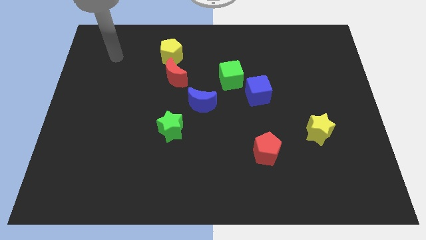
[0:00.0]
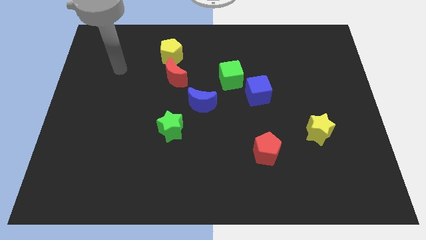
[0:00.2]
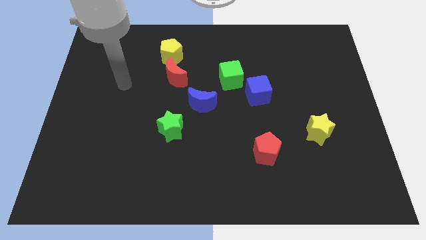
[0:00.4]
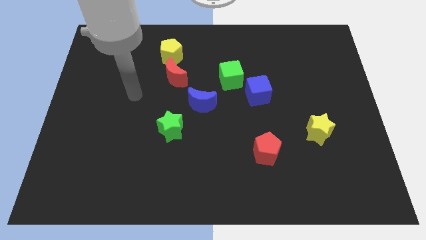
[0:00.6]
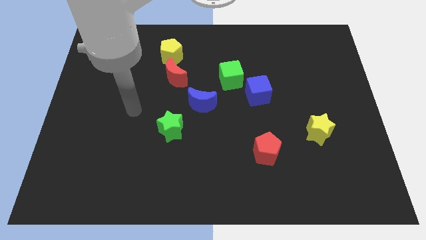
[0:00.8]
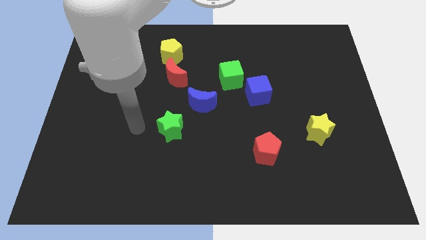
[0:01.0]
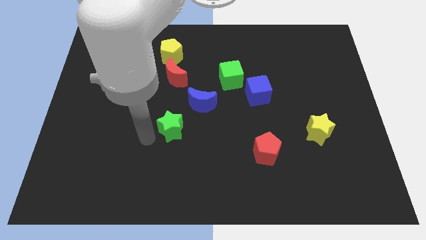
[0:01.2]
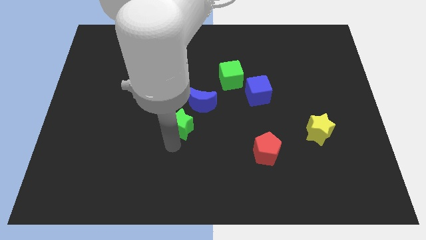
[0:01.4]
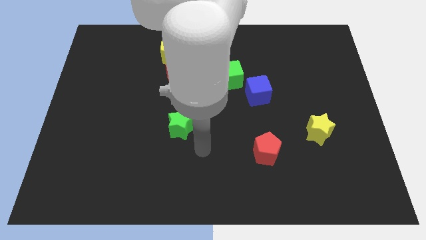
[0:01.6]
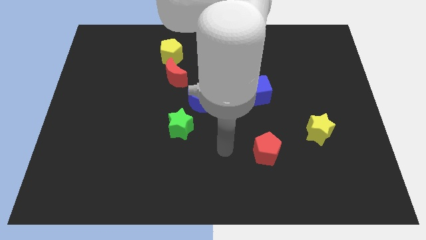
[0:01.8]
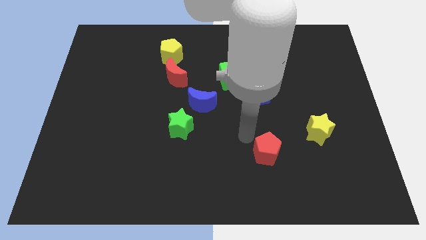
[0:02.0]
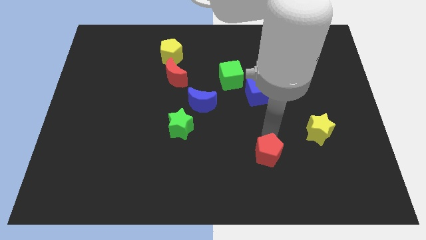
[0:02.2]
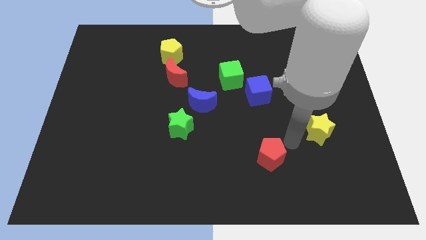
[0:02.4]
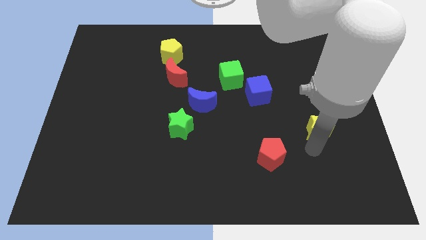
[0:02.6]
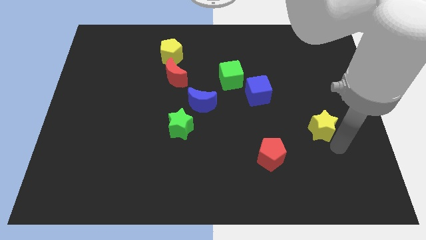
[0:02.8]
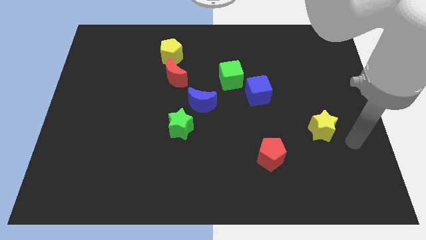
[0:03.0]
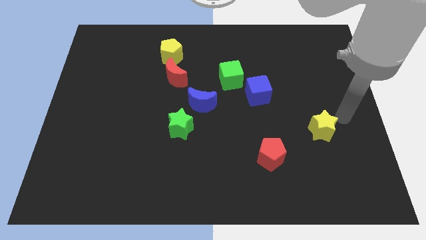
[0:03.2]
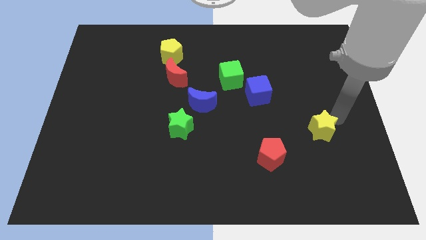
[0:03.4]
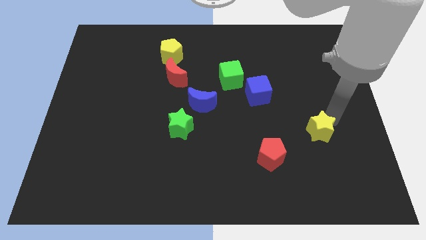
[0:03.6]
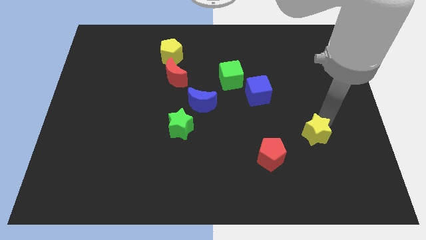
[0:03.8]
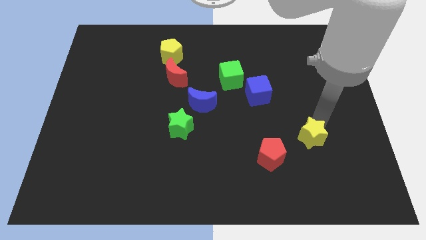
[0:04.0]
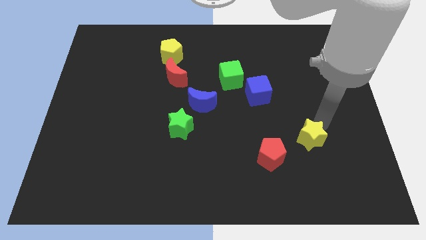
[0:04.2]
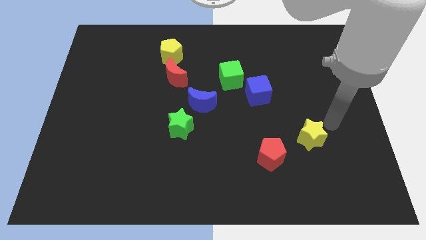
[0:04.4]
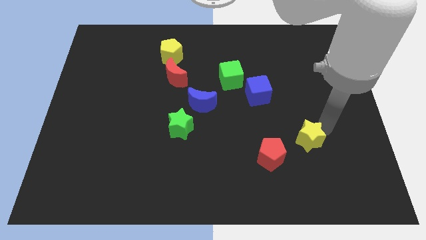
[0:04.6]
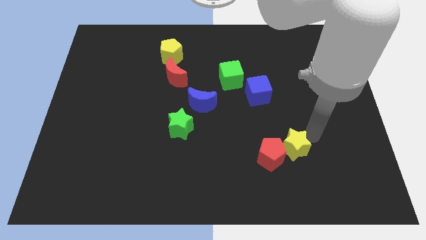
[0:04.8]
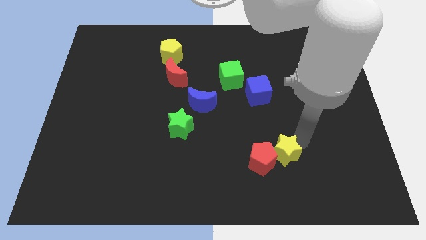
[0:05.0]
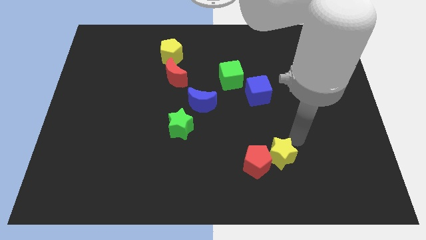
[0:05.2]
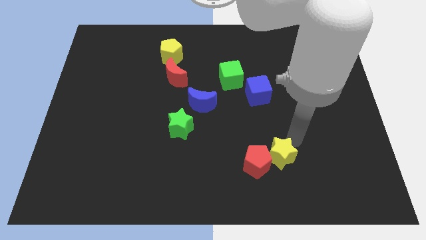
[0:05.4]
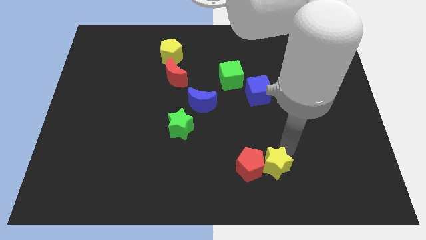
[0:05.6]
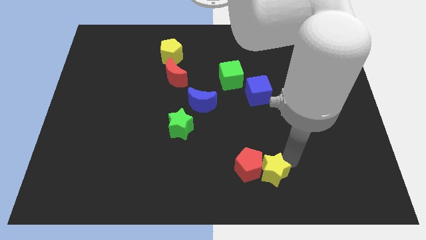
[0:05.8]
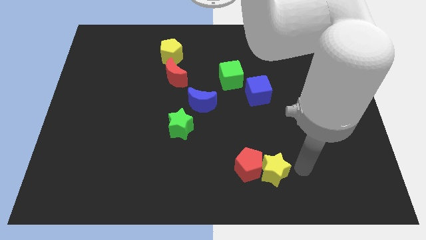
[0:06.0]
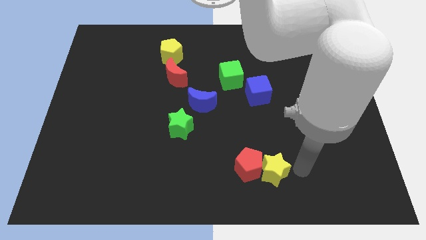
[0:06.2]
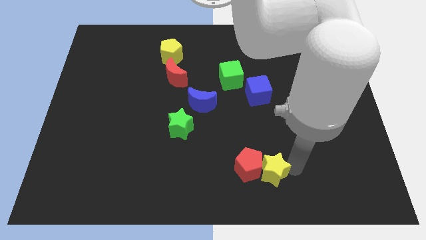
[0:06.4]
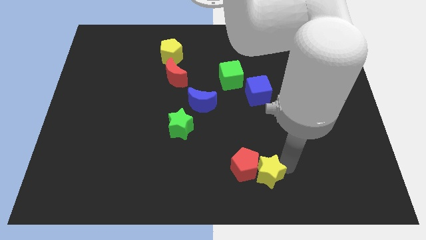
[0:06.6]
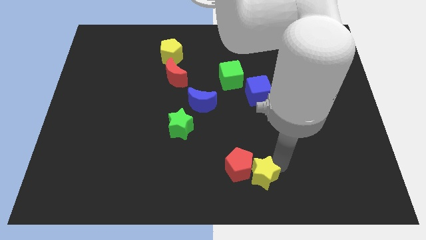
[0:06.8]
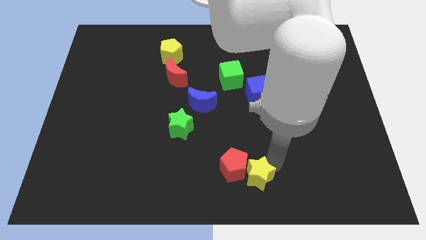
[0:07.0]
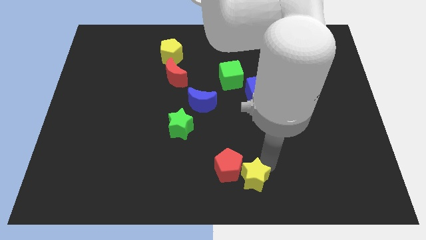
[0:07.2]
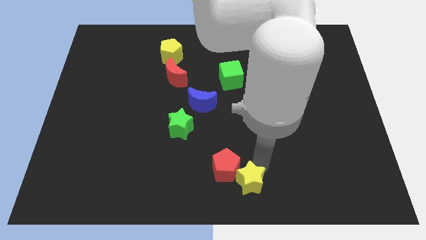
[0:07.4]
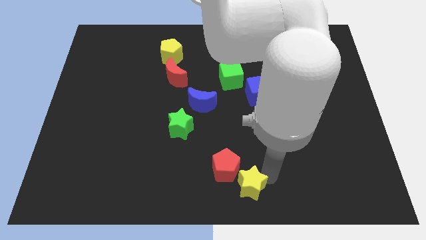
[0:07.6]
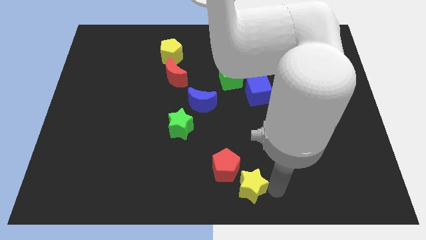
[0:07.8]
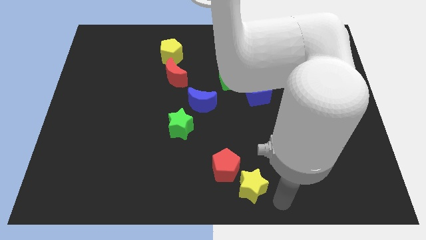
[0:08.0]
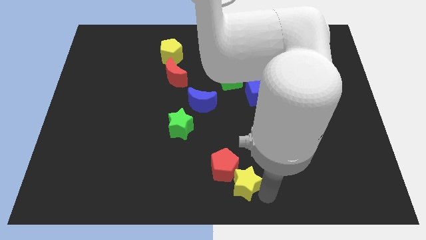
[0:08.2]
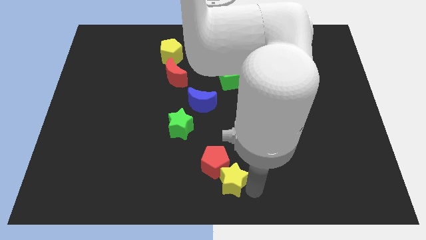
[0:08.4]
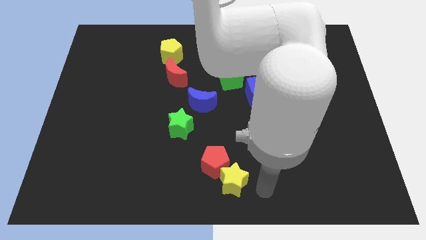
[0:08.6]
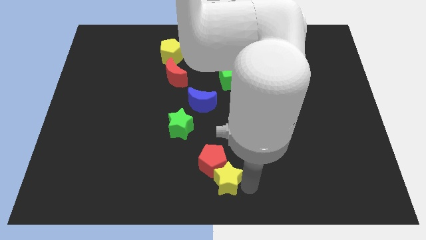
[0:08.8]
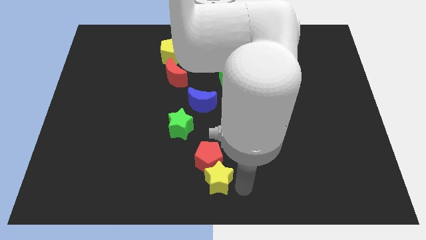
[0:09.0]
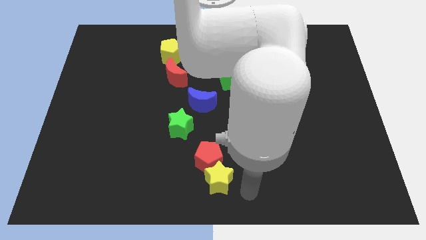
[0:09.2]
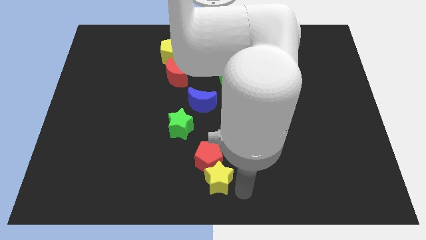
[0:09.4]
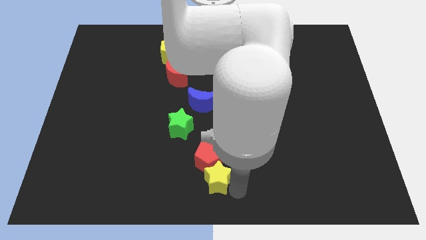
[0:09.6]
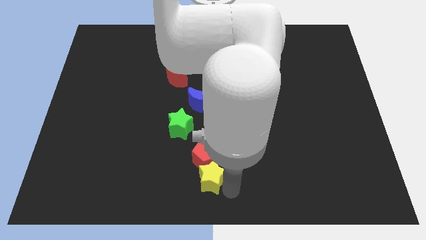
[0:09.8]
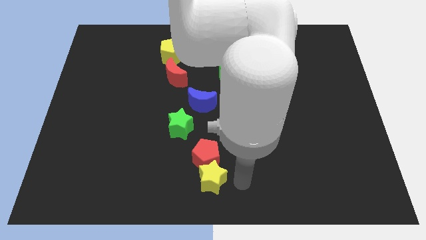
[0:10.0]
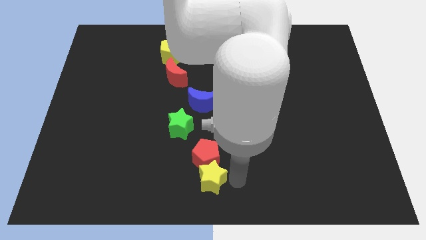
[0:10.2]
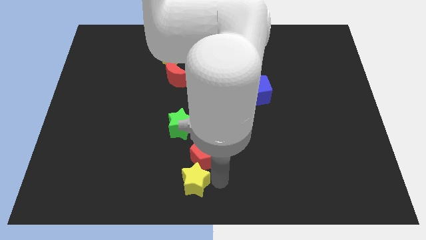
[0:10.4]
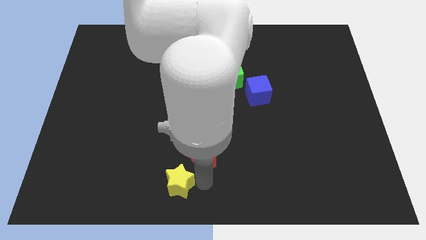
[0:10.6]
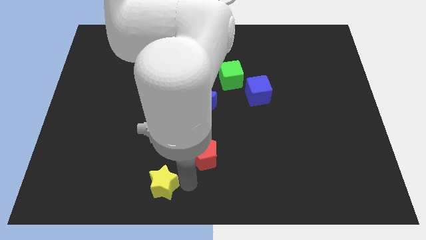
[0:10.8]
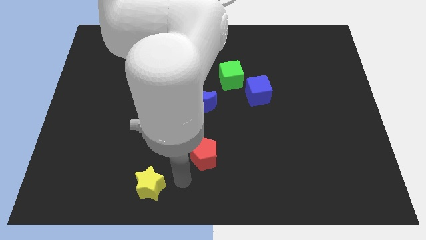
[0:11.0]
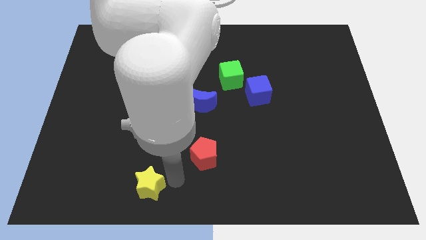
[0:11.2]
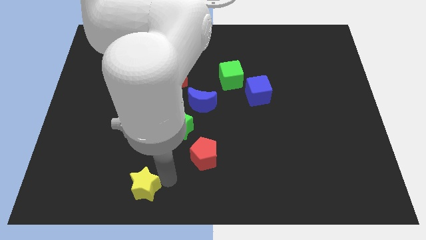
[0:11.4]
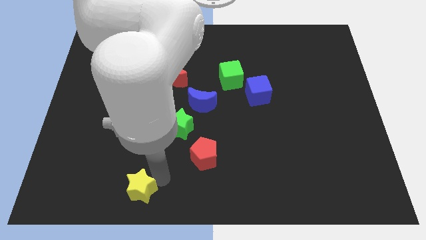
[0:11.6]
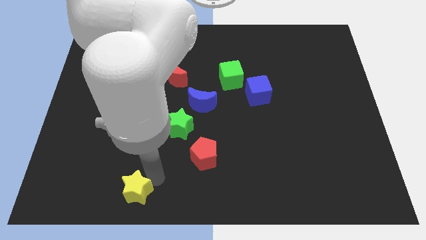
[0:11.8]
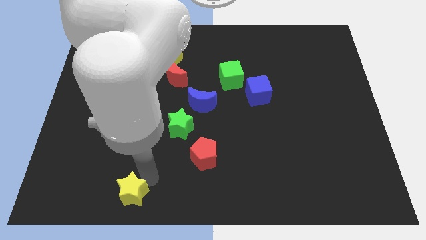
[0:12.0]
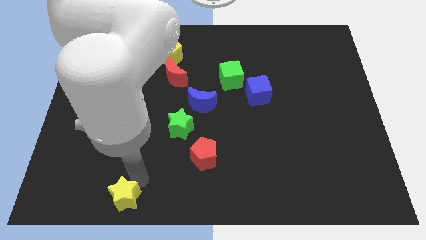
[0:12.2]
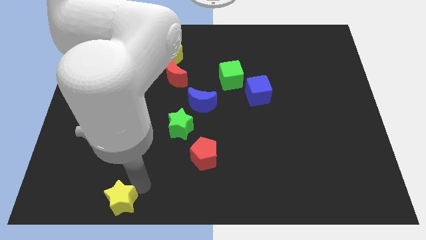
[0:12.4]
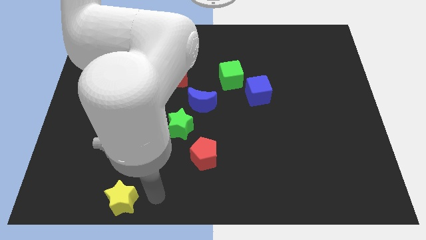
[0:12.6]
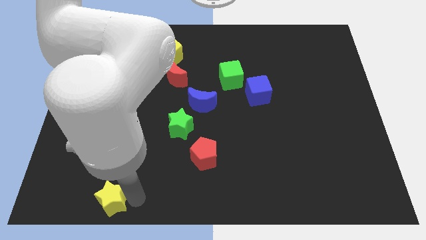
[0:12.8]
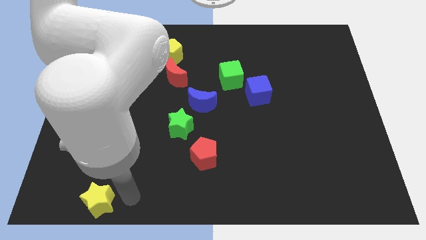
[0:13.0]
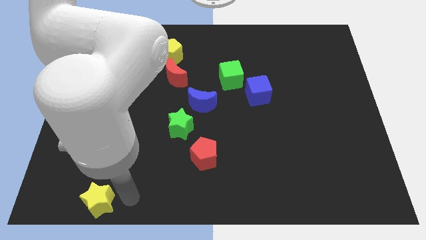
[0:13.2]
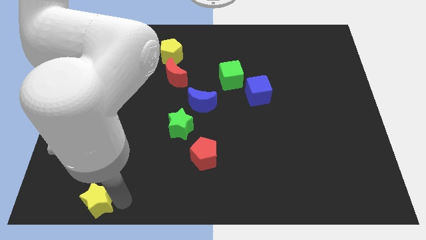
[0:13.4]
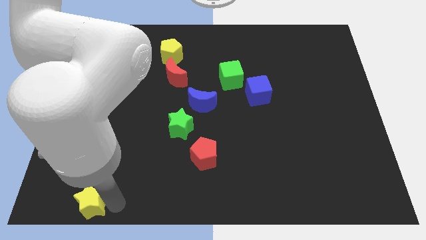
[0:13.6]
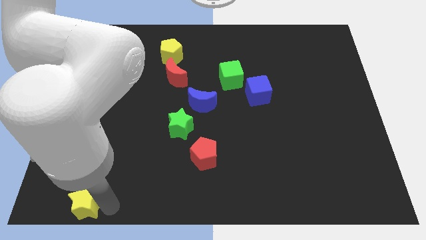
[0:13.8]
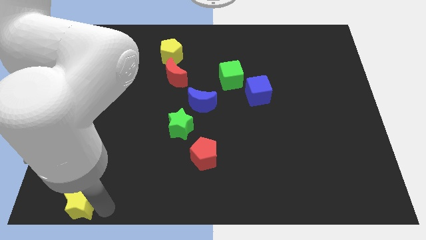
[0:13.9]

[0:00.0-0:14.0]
put the yellow star to the lower left corner
